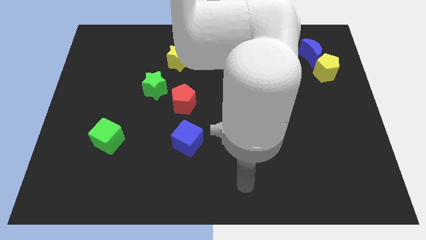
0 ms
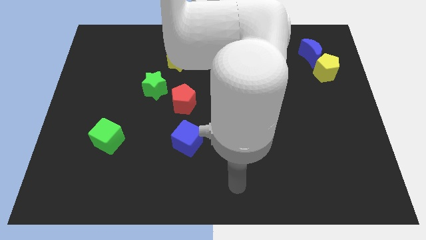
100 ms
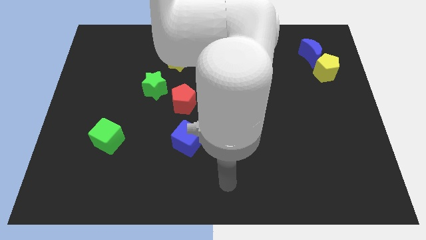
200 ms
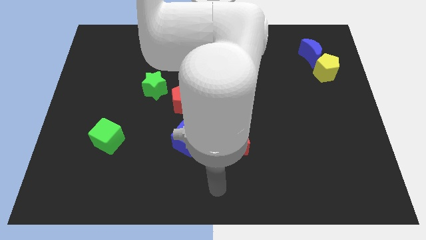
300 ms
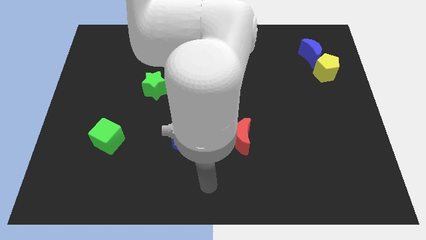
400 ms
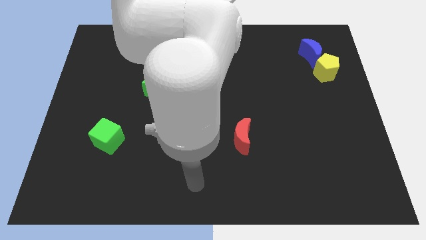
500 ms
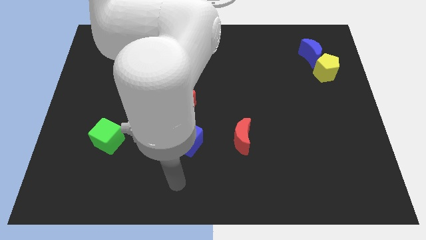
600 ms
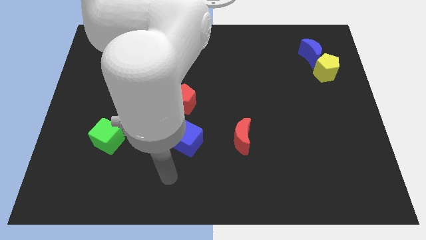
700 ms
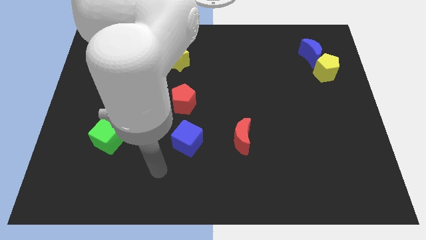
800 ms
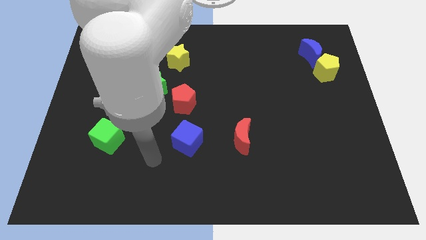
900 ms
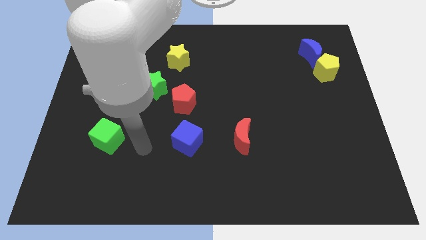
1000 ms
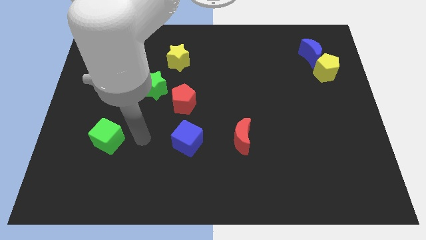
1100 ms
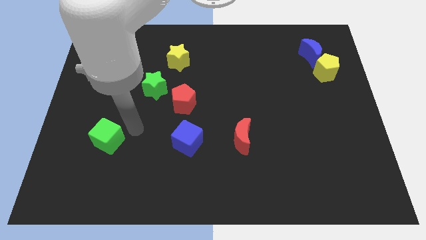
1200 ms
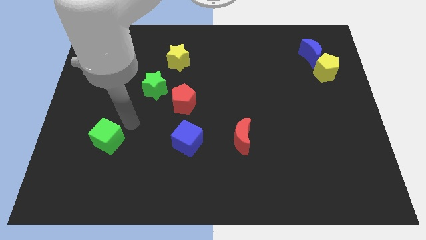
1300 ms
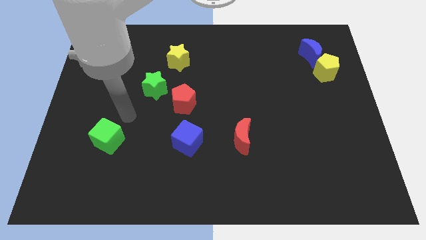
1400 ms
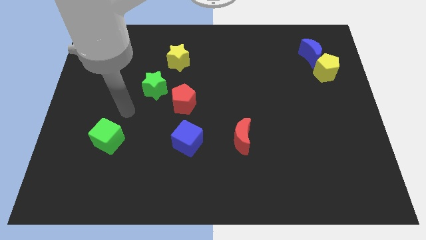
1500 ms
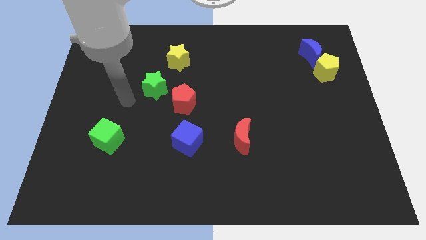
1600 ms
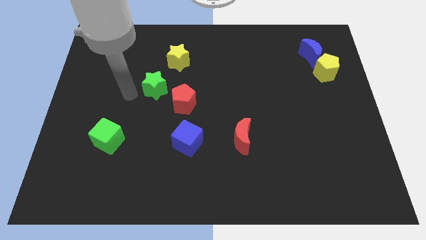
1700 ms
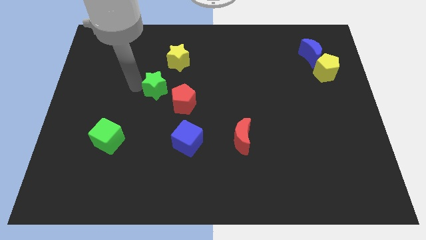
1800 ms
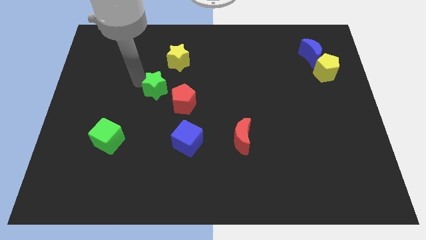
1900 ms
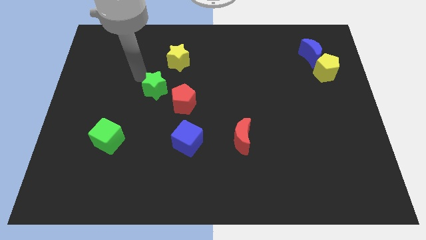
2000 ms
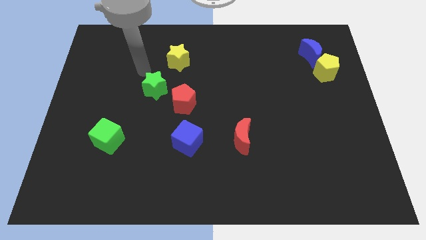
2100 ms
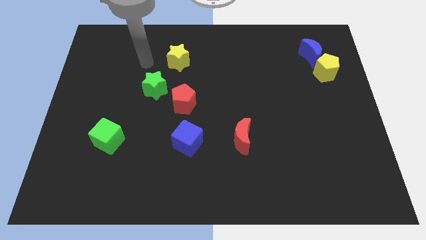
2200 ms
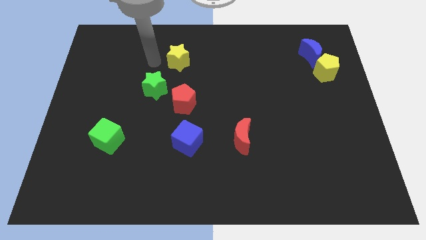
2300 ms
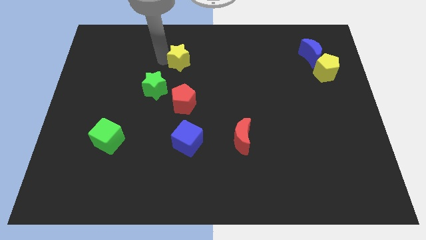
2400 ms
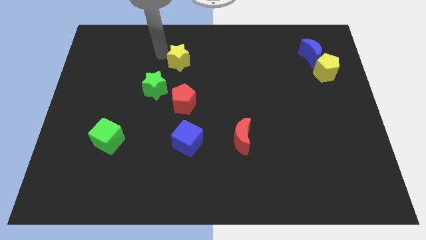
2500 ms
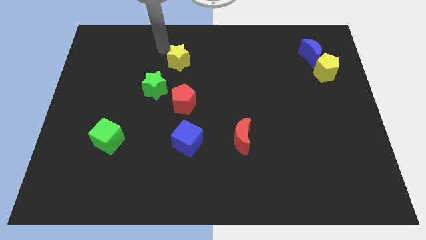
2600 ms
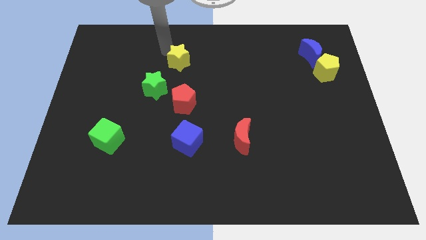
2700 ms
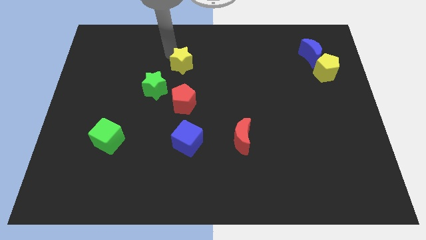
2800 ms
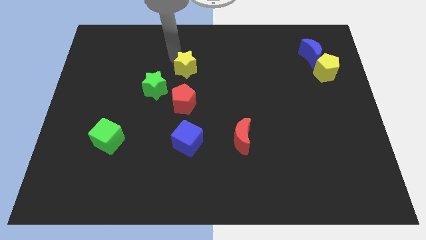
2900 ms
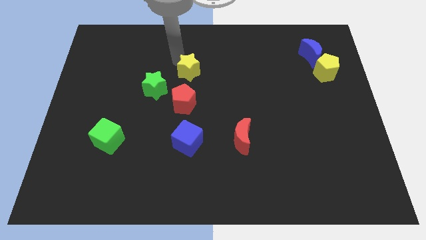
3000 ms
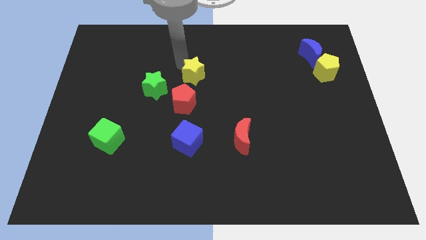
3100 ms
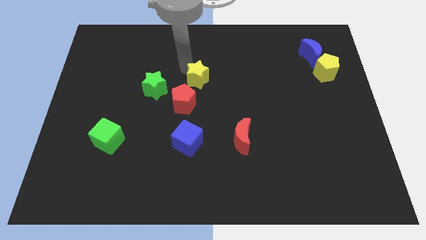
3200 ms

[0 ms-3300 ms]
slightly move the yellow star downwards and to the right diagonally

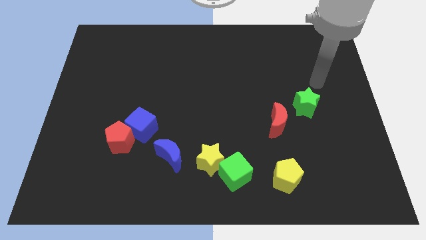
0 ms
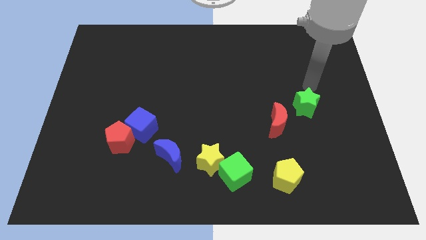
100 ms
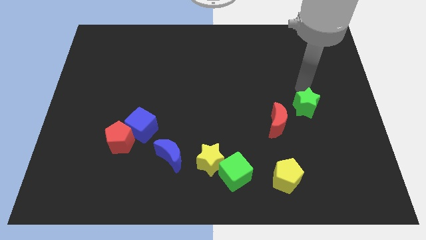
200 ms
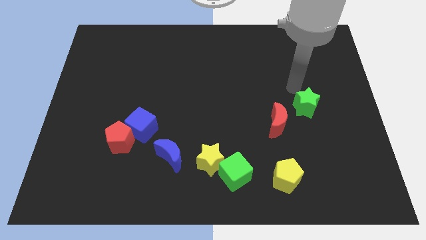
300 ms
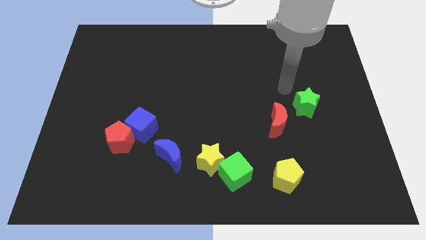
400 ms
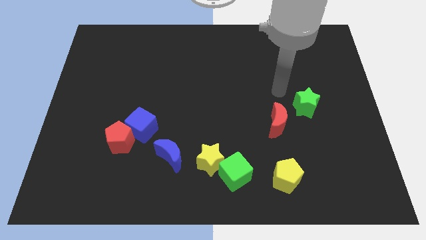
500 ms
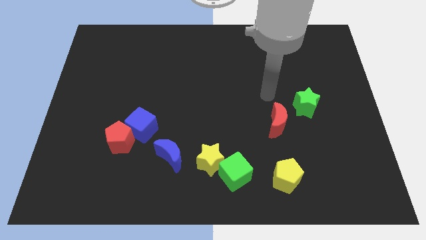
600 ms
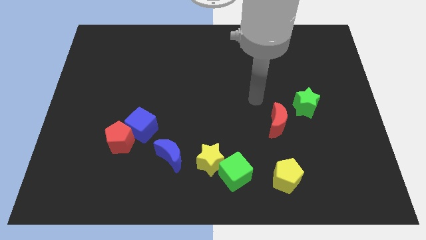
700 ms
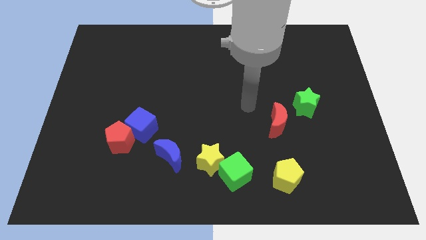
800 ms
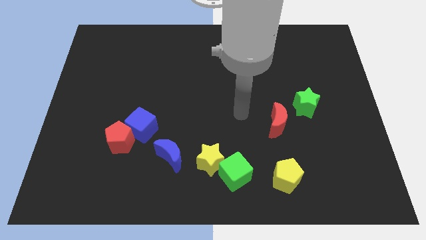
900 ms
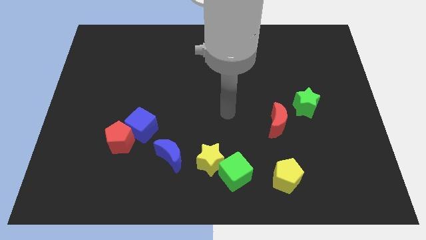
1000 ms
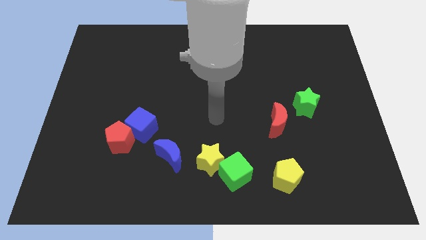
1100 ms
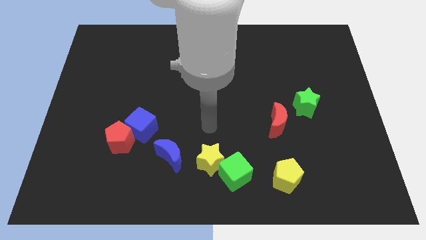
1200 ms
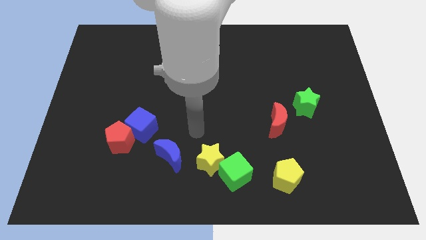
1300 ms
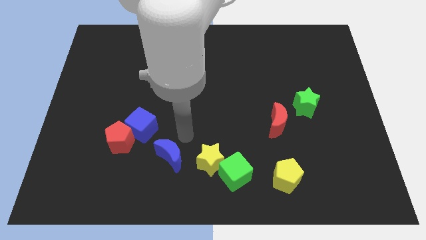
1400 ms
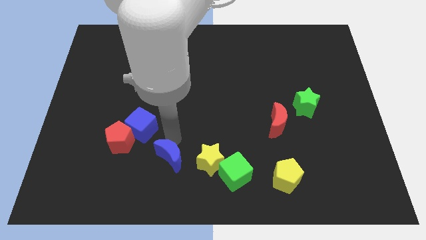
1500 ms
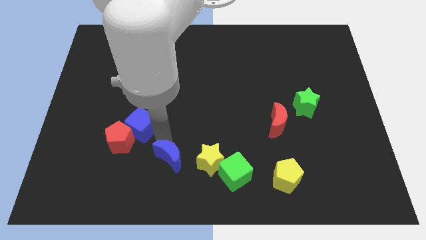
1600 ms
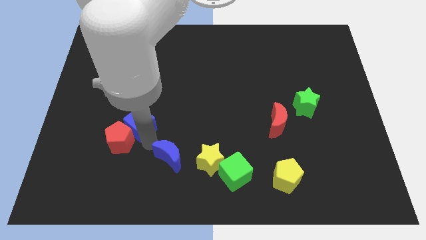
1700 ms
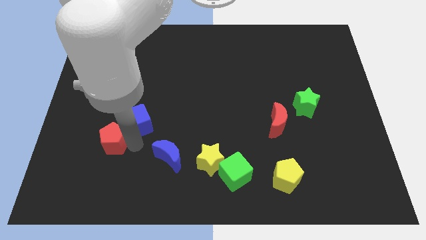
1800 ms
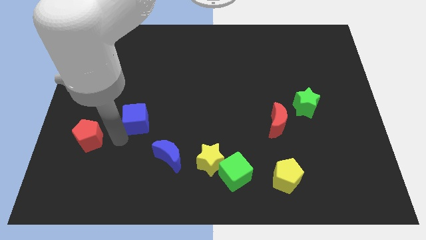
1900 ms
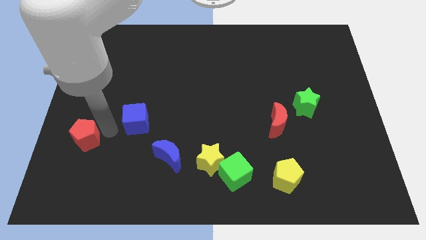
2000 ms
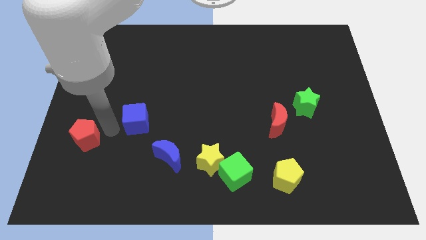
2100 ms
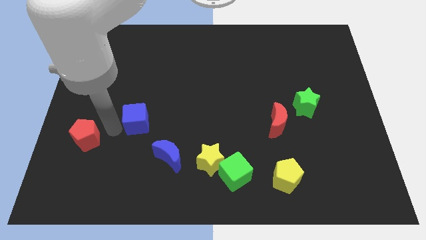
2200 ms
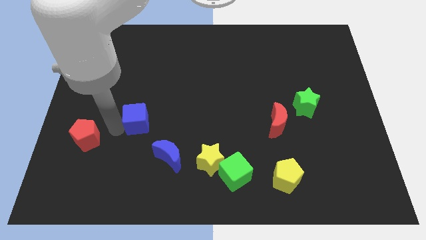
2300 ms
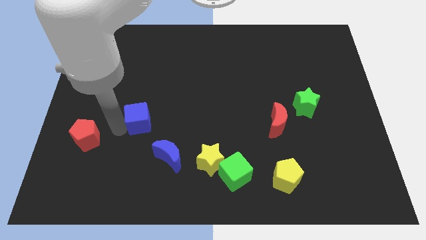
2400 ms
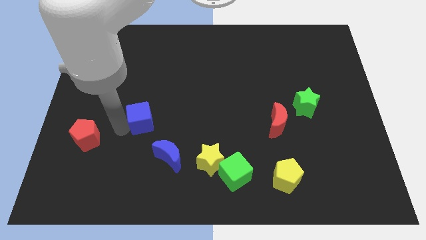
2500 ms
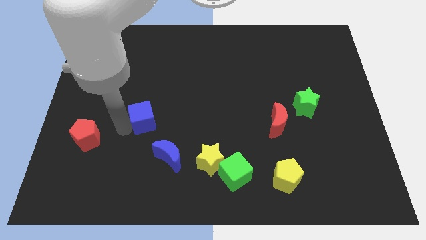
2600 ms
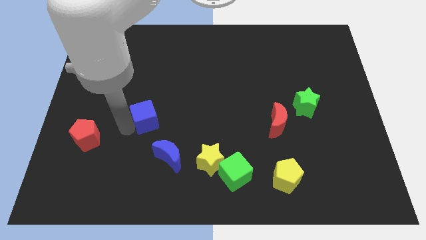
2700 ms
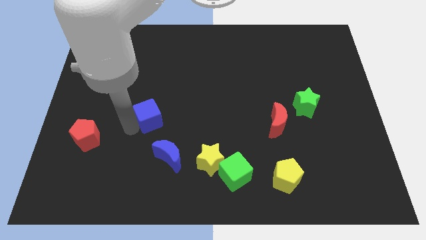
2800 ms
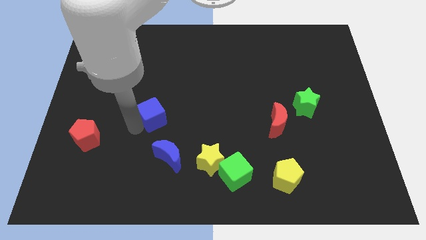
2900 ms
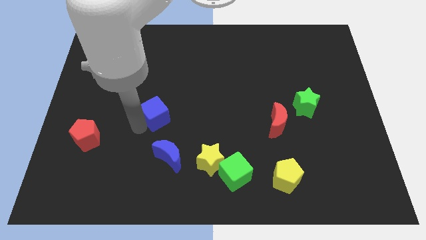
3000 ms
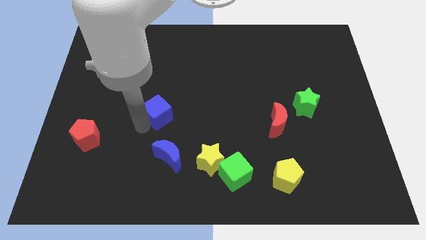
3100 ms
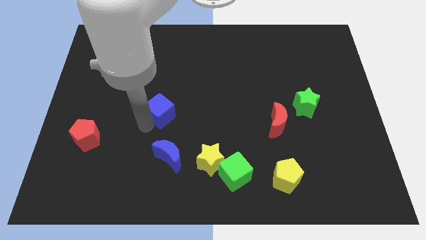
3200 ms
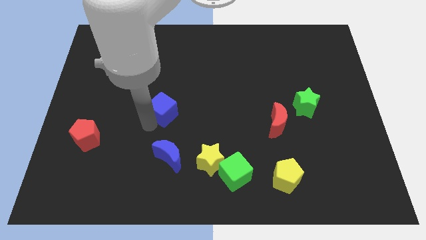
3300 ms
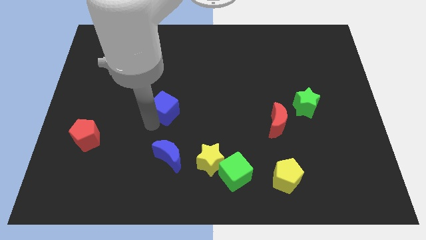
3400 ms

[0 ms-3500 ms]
slightly slide the blue cube up and right

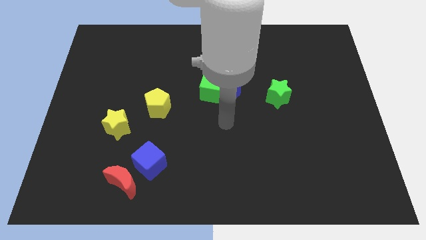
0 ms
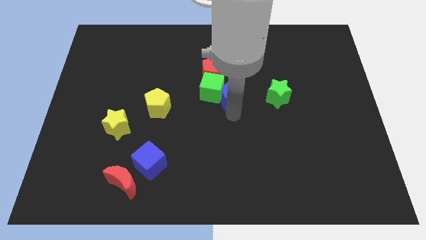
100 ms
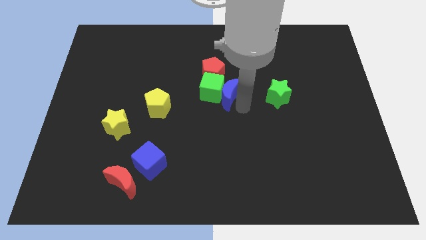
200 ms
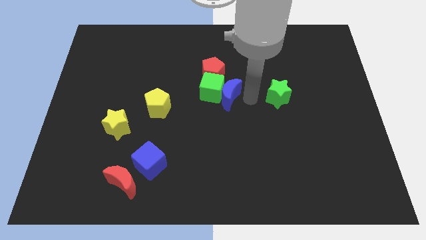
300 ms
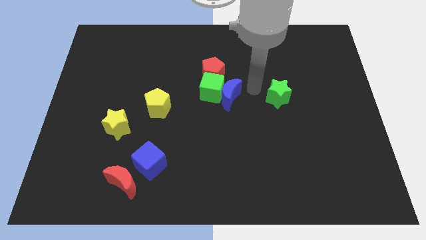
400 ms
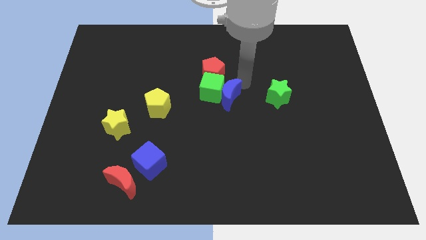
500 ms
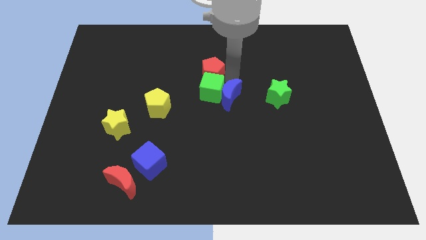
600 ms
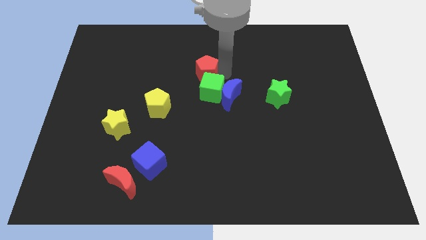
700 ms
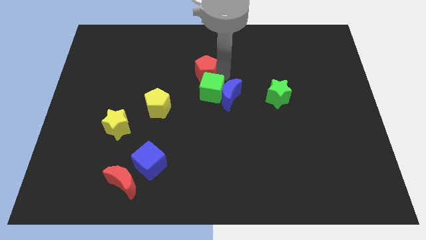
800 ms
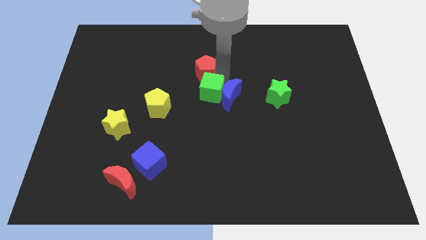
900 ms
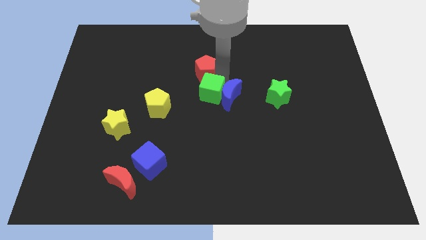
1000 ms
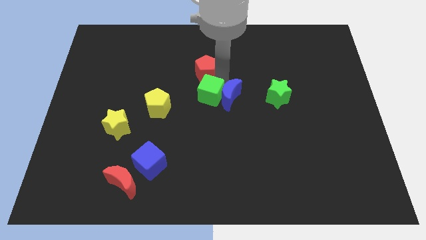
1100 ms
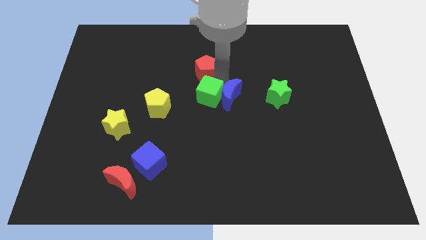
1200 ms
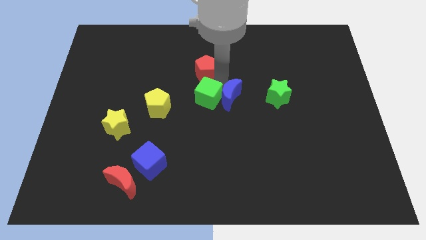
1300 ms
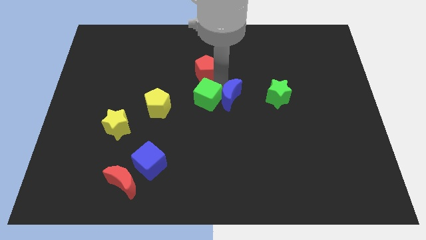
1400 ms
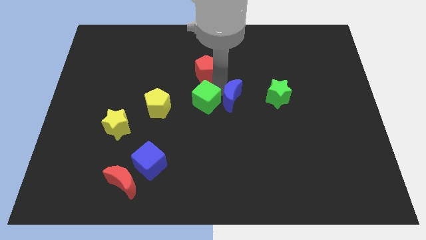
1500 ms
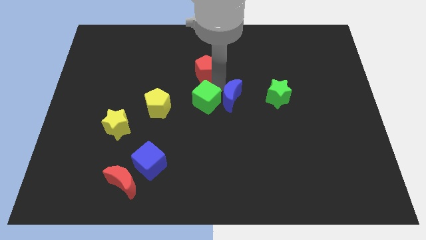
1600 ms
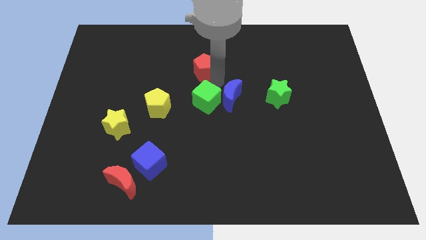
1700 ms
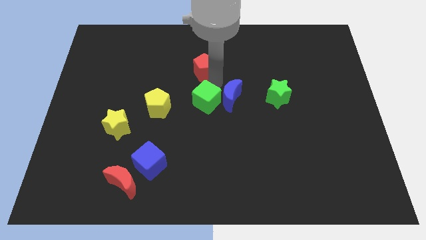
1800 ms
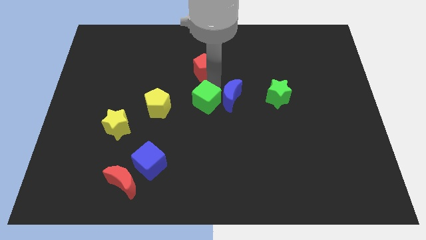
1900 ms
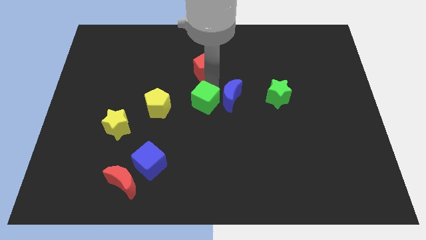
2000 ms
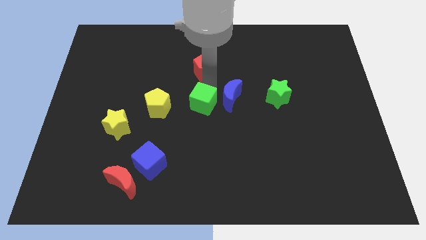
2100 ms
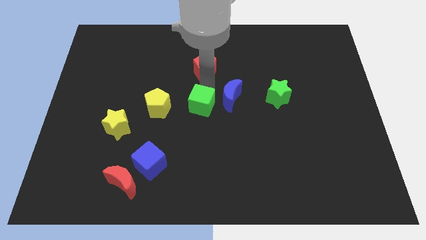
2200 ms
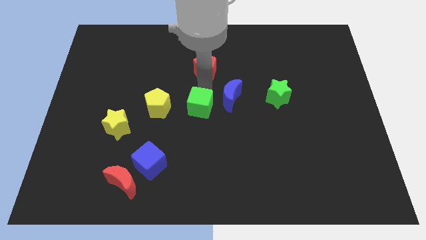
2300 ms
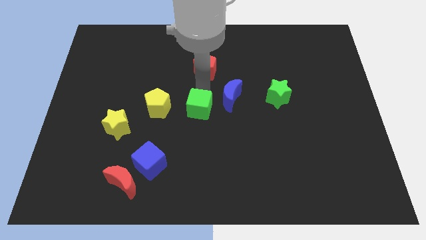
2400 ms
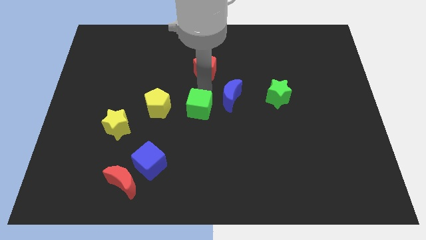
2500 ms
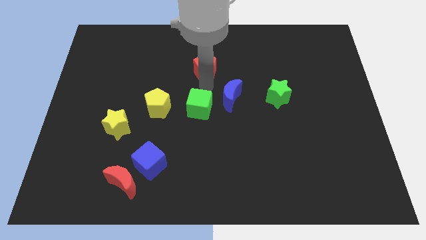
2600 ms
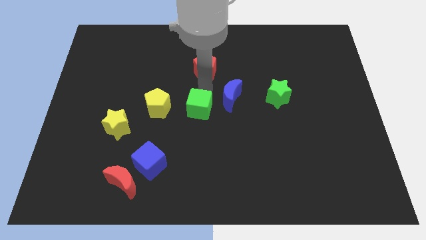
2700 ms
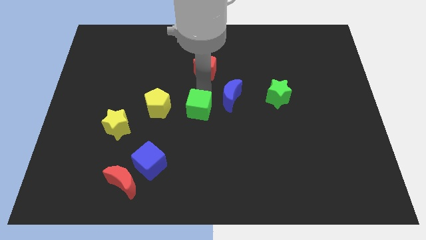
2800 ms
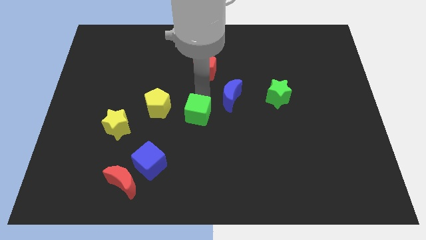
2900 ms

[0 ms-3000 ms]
slightly move the green cube downwards and then left
